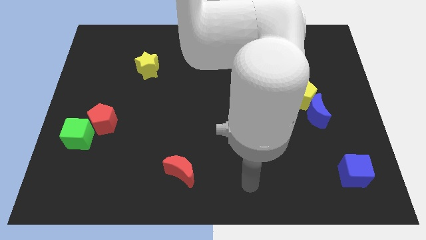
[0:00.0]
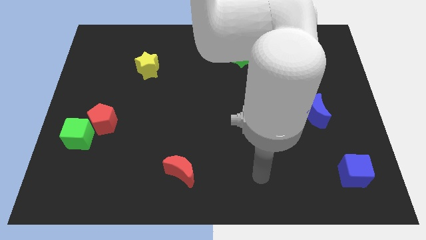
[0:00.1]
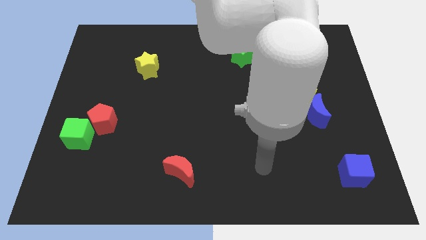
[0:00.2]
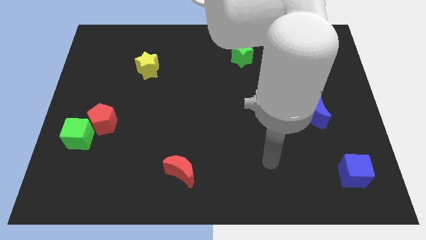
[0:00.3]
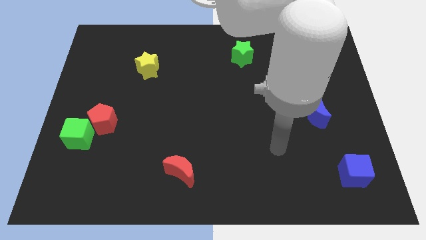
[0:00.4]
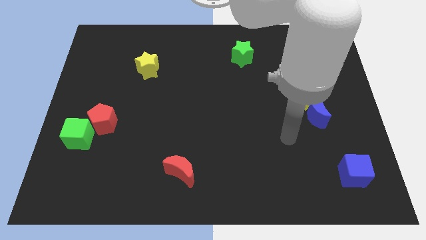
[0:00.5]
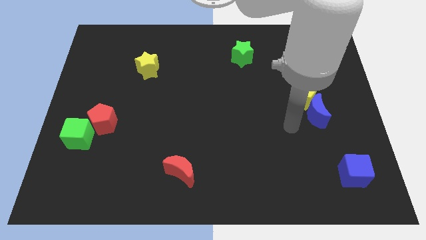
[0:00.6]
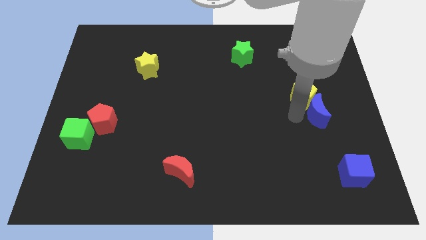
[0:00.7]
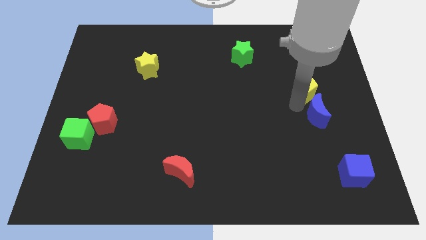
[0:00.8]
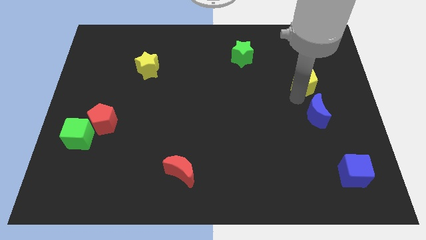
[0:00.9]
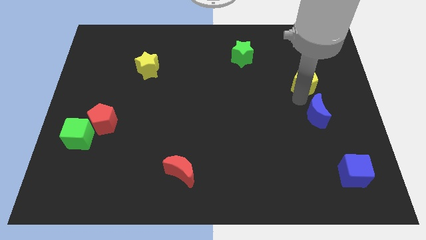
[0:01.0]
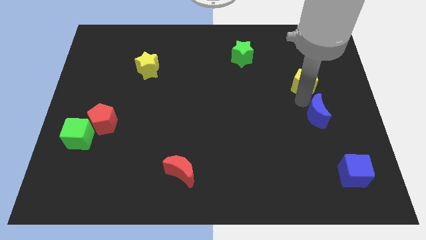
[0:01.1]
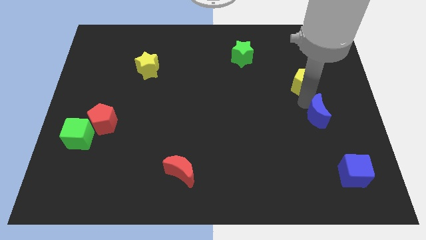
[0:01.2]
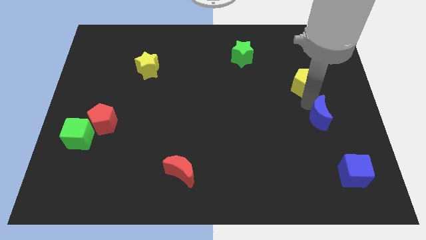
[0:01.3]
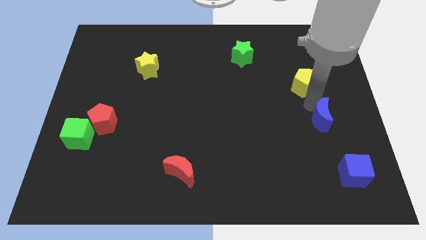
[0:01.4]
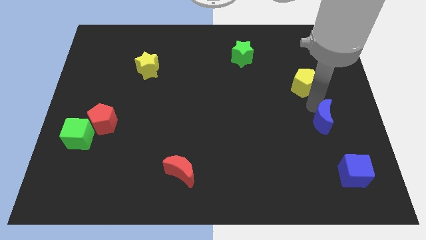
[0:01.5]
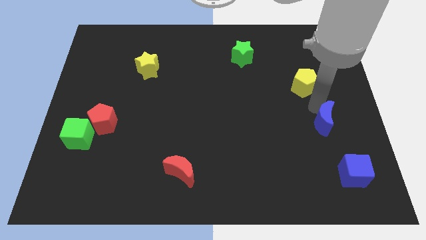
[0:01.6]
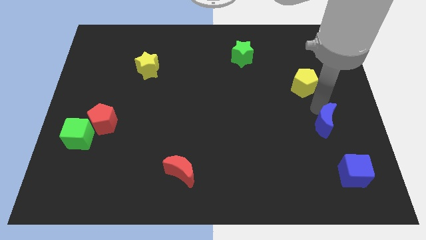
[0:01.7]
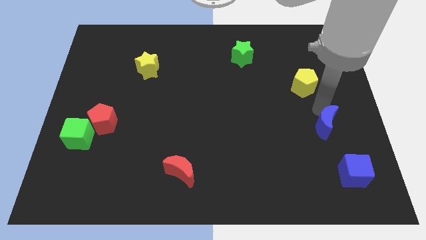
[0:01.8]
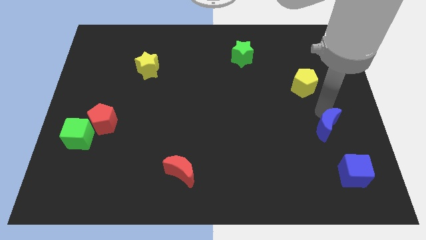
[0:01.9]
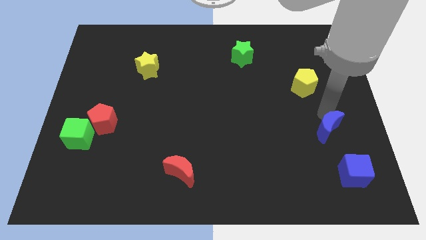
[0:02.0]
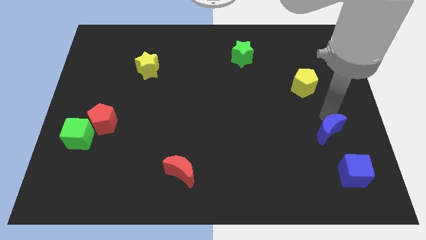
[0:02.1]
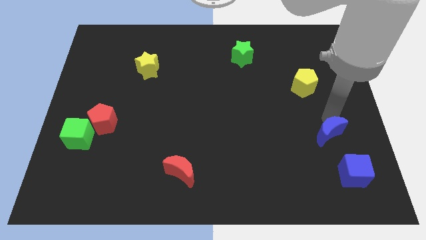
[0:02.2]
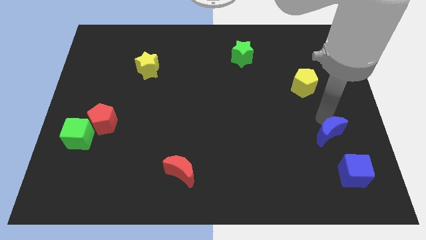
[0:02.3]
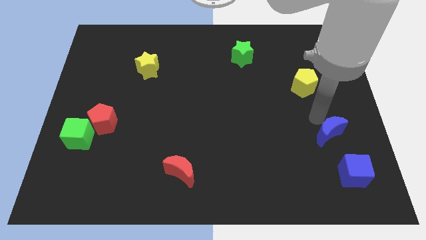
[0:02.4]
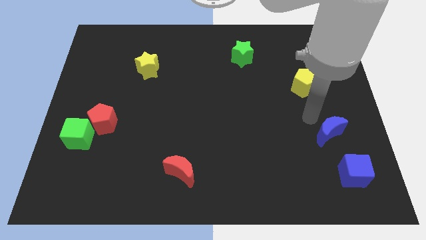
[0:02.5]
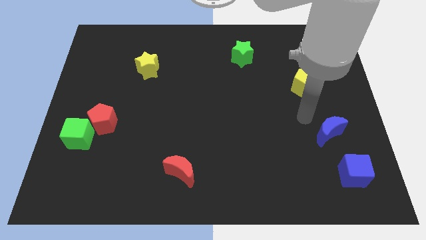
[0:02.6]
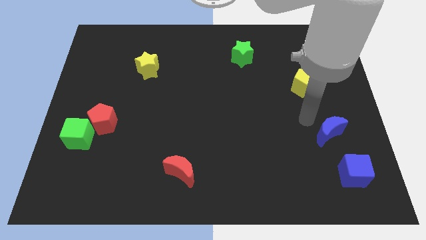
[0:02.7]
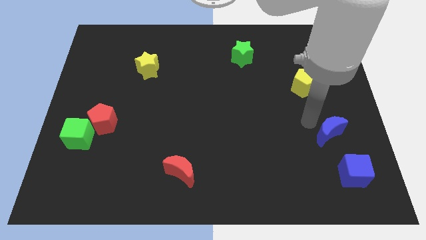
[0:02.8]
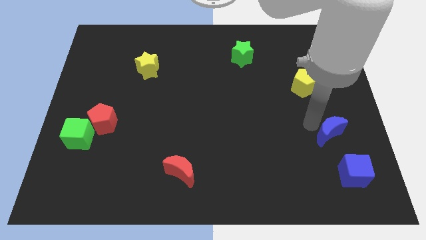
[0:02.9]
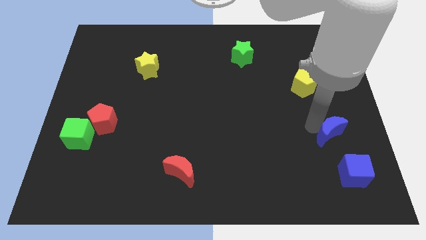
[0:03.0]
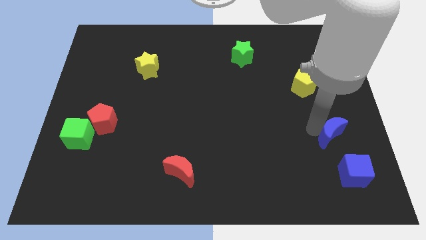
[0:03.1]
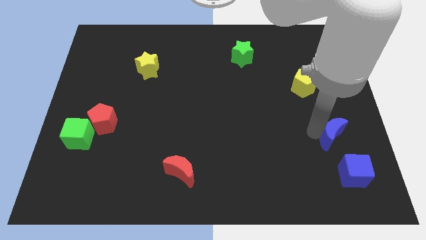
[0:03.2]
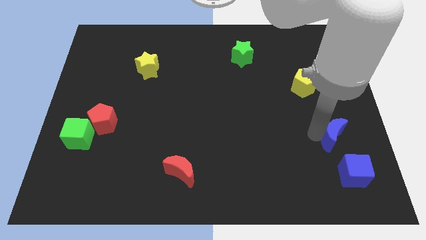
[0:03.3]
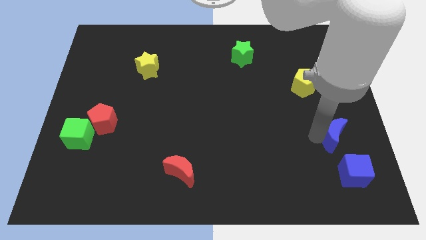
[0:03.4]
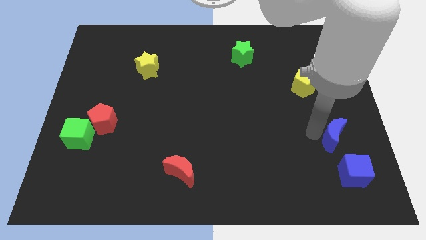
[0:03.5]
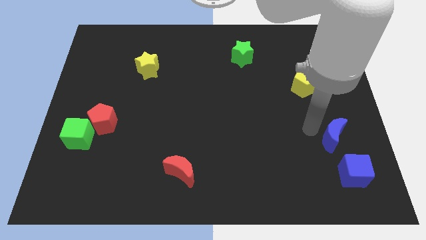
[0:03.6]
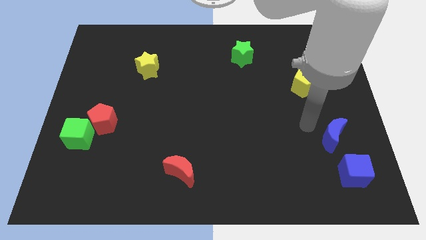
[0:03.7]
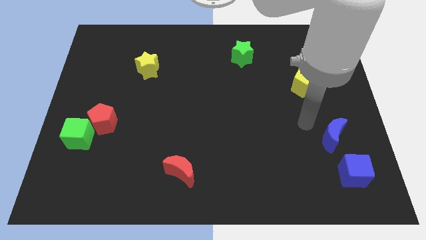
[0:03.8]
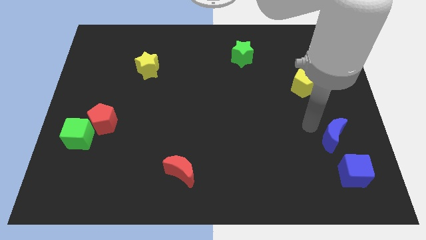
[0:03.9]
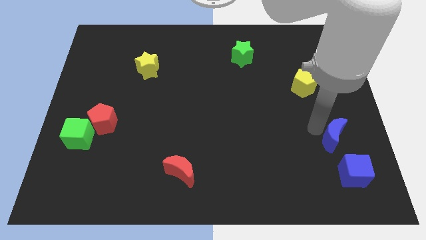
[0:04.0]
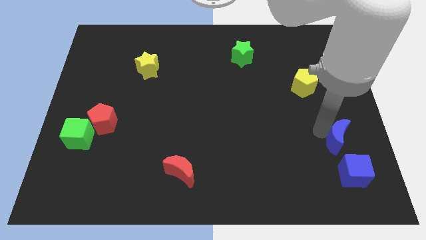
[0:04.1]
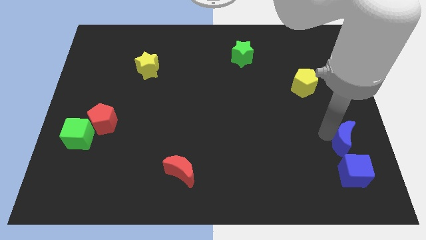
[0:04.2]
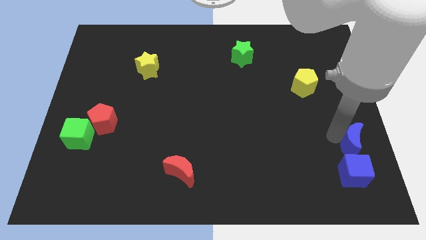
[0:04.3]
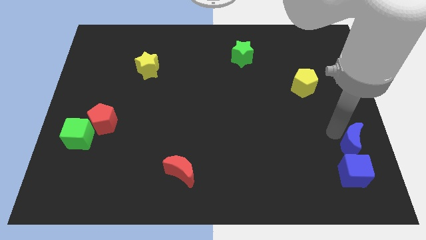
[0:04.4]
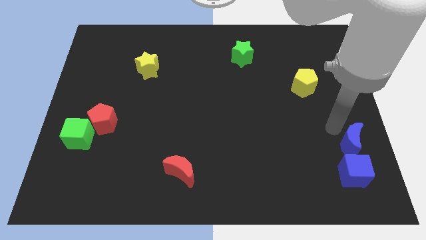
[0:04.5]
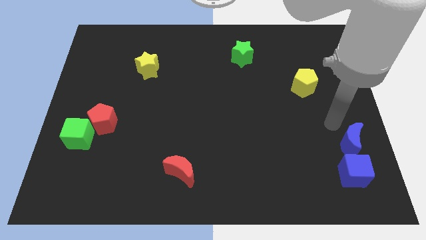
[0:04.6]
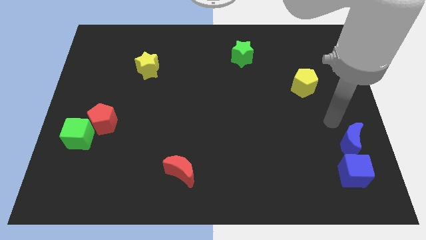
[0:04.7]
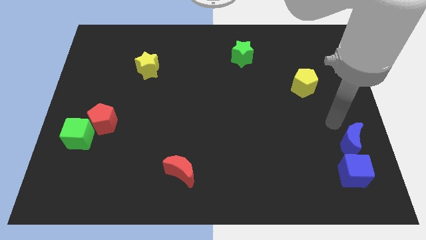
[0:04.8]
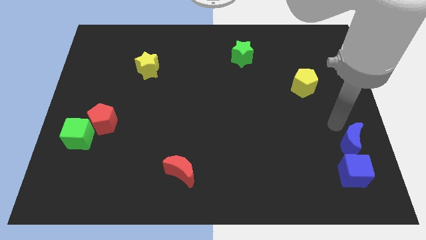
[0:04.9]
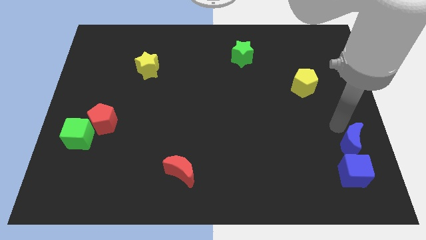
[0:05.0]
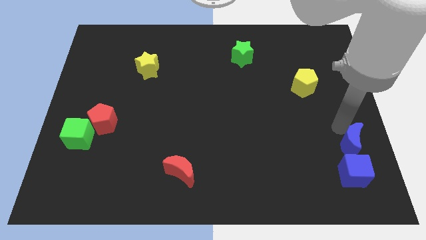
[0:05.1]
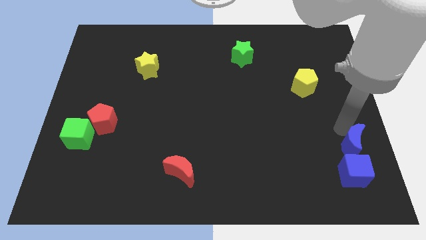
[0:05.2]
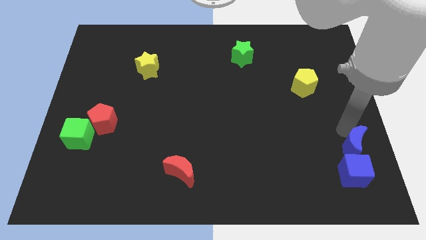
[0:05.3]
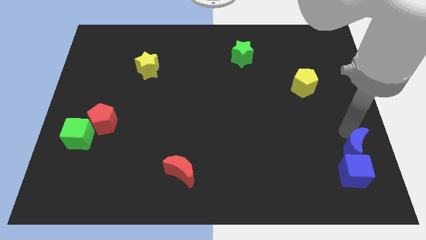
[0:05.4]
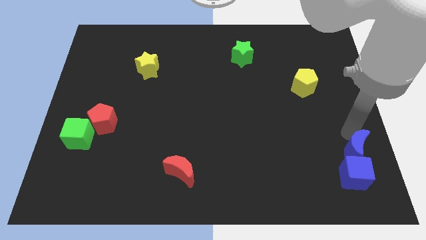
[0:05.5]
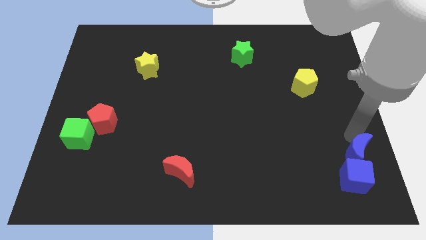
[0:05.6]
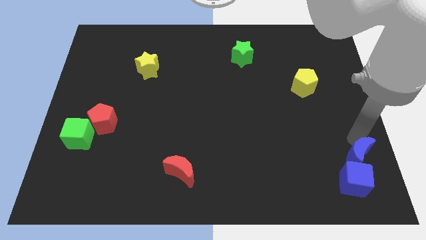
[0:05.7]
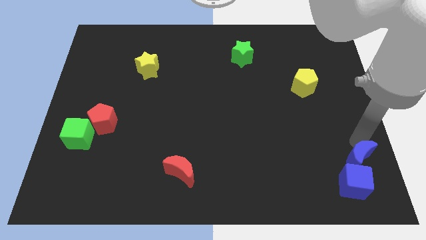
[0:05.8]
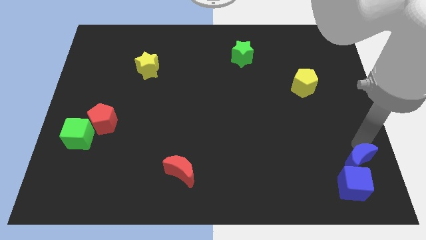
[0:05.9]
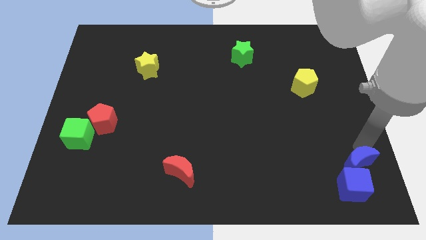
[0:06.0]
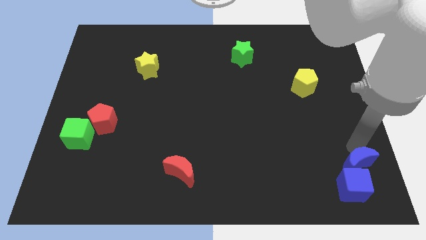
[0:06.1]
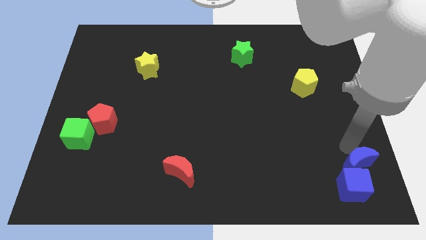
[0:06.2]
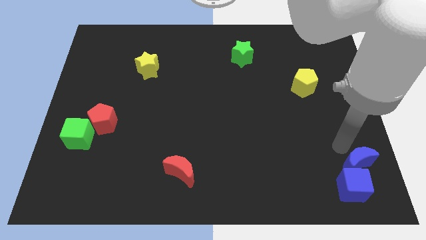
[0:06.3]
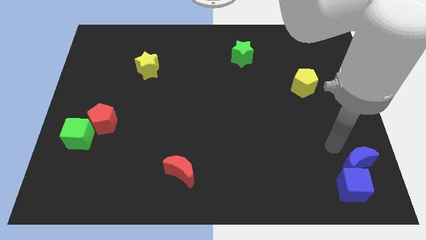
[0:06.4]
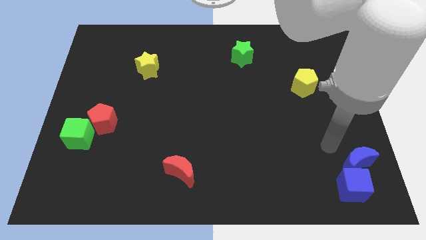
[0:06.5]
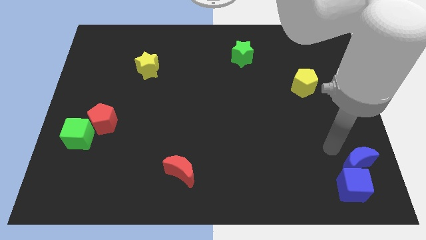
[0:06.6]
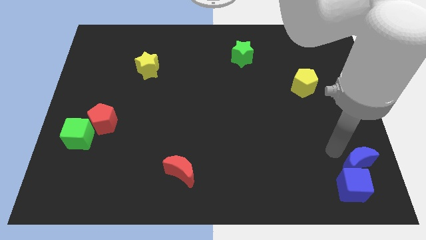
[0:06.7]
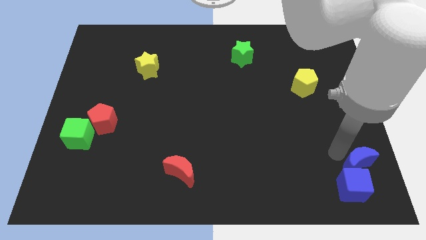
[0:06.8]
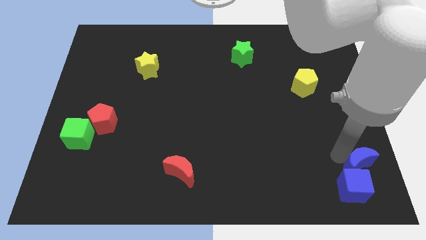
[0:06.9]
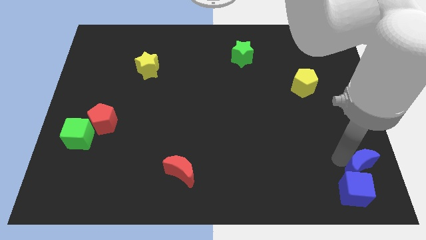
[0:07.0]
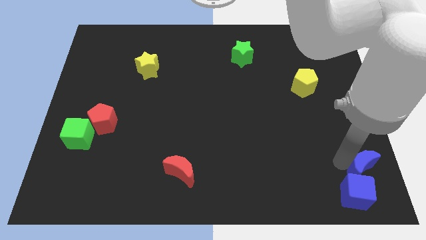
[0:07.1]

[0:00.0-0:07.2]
put the blue moon to the lower right corner
